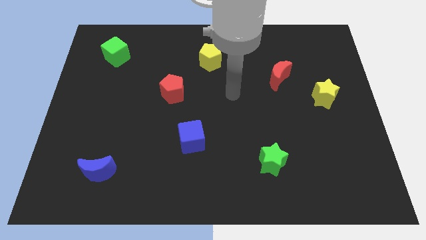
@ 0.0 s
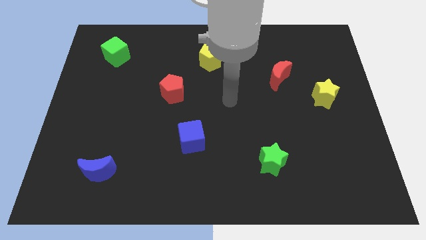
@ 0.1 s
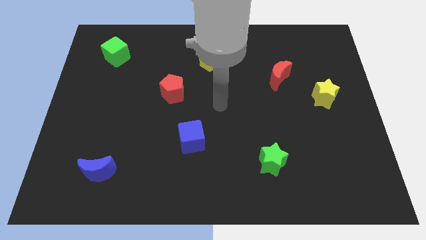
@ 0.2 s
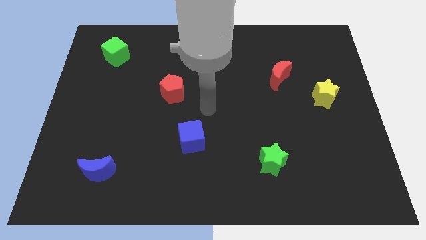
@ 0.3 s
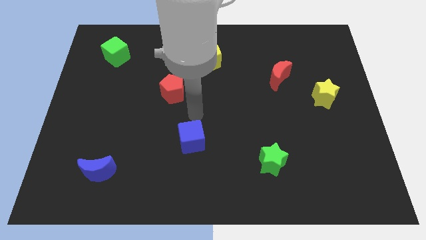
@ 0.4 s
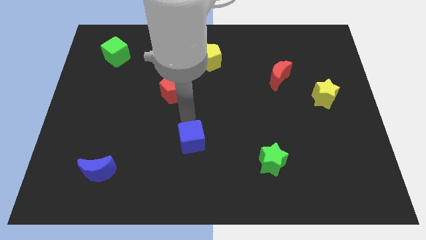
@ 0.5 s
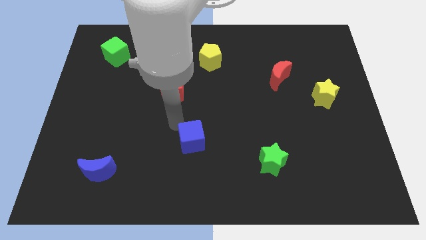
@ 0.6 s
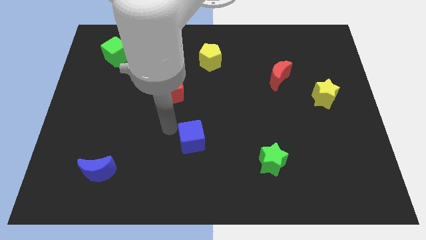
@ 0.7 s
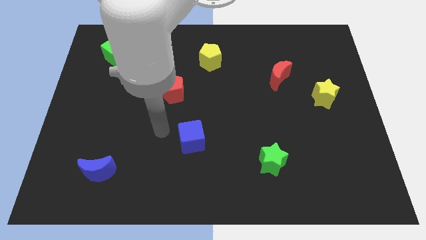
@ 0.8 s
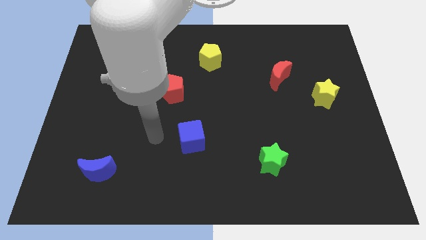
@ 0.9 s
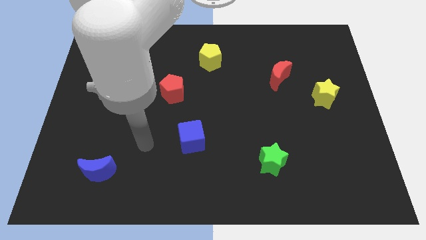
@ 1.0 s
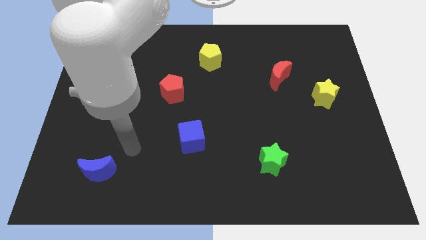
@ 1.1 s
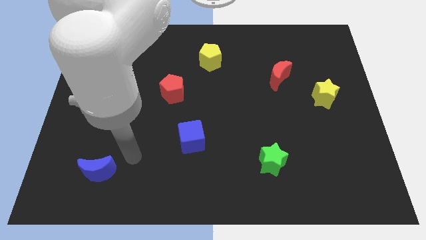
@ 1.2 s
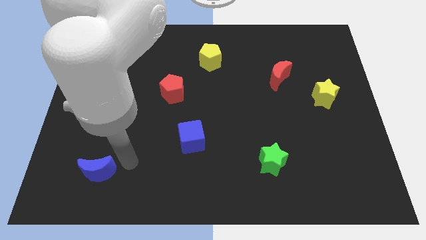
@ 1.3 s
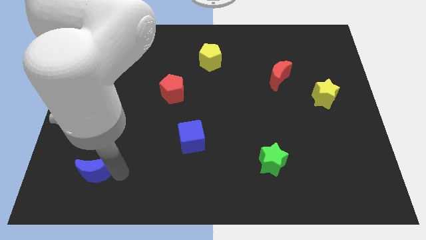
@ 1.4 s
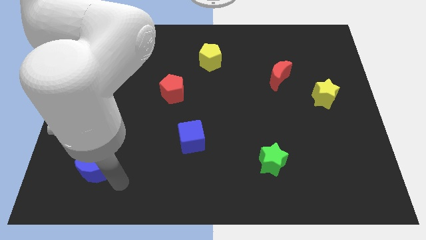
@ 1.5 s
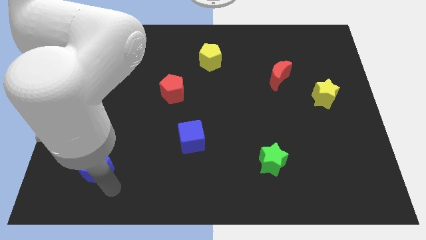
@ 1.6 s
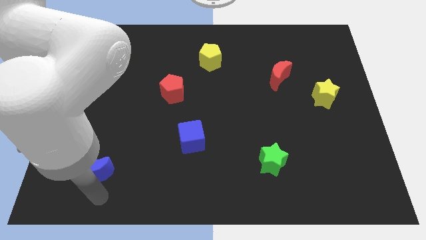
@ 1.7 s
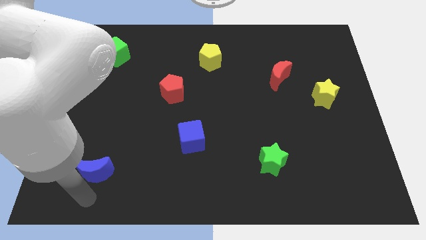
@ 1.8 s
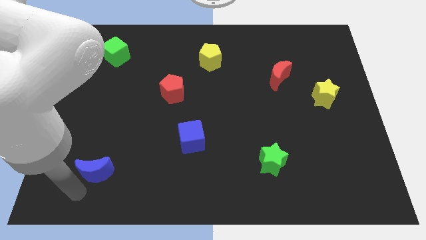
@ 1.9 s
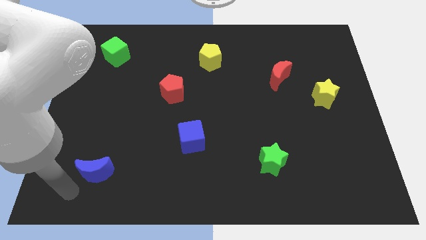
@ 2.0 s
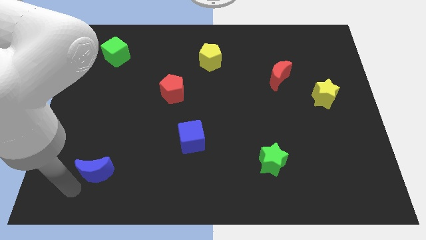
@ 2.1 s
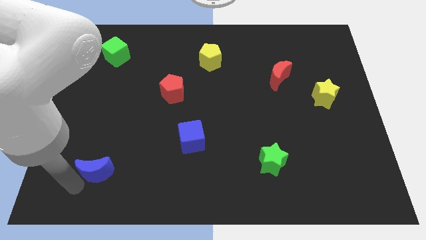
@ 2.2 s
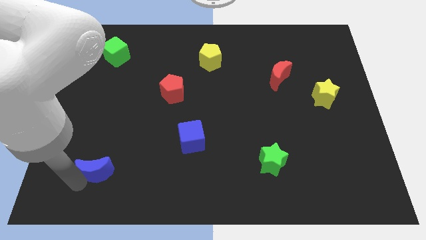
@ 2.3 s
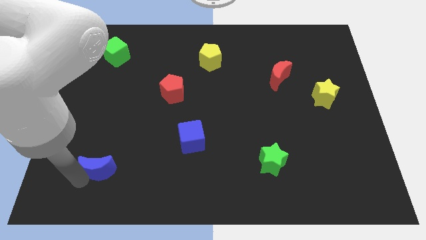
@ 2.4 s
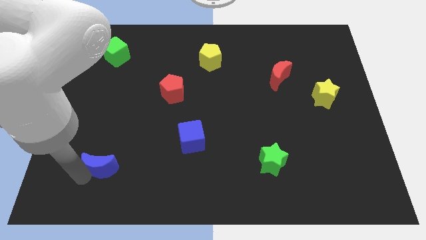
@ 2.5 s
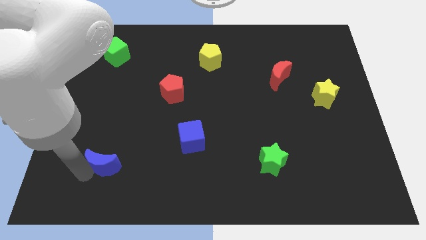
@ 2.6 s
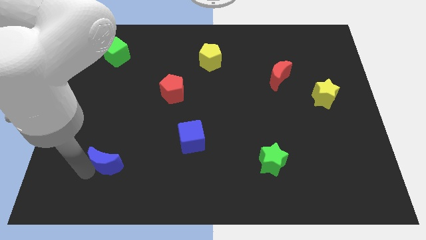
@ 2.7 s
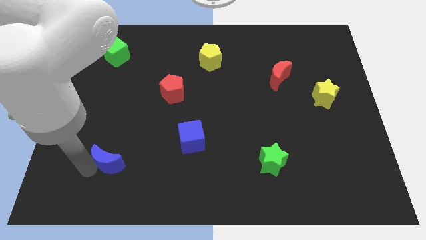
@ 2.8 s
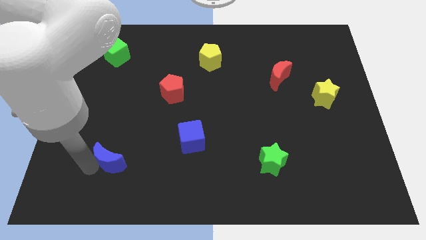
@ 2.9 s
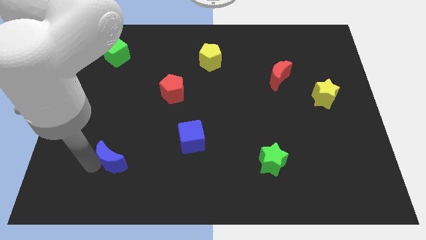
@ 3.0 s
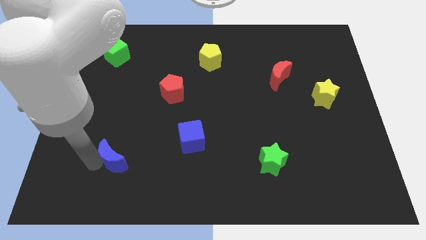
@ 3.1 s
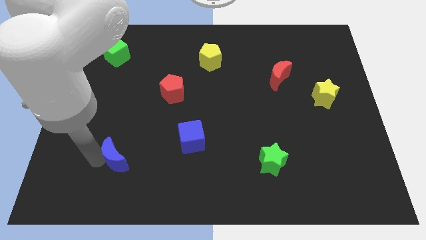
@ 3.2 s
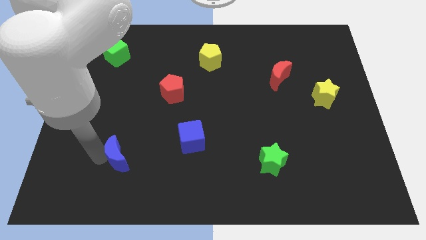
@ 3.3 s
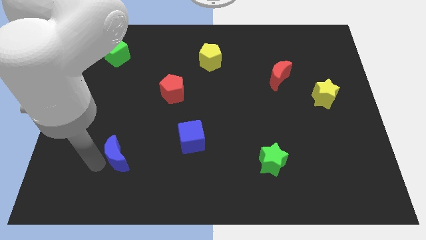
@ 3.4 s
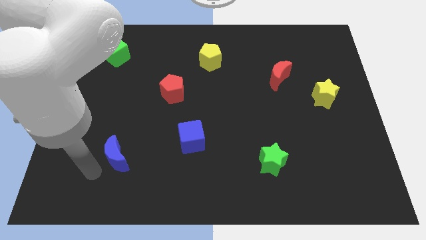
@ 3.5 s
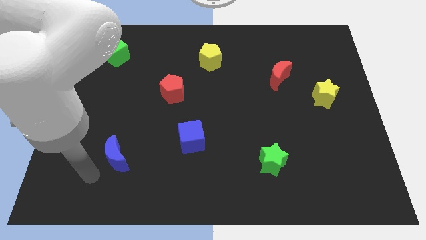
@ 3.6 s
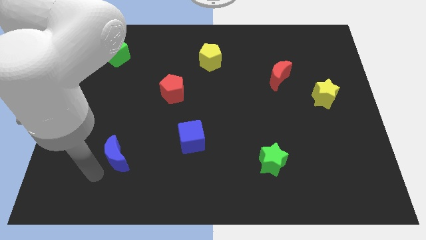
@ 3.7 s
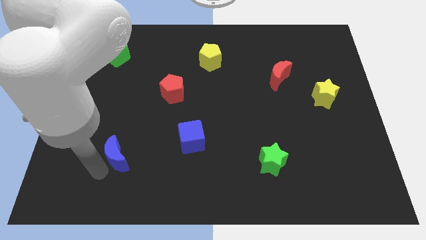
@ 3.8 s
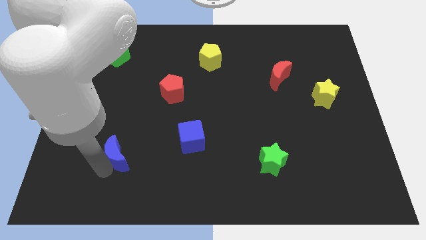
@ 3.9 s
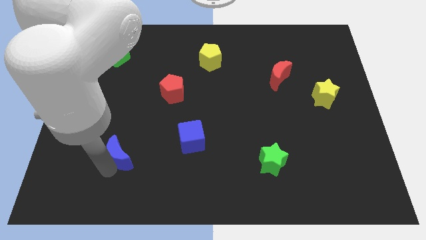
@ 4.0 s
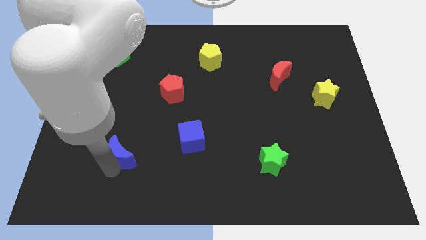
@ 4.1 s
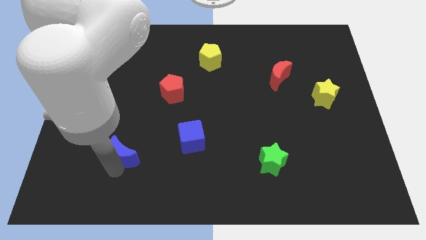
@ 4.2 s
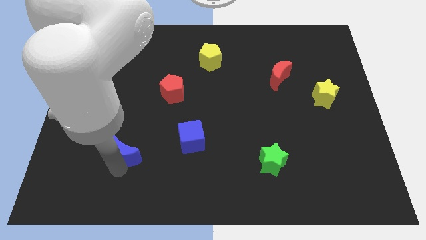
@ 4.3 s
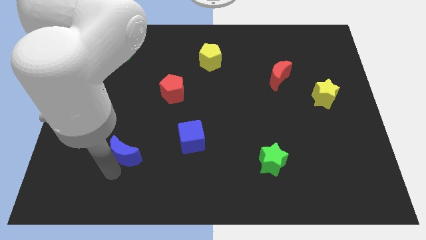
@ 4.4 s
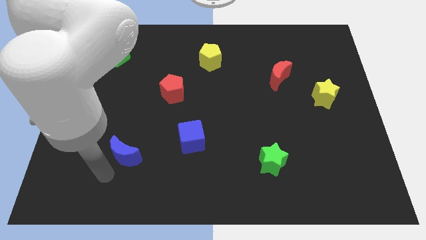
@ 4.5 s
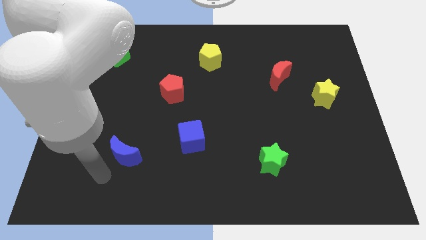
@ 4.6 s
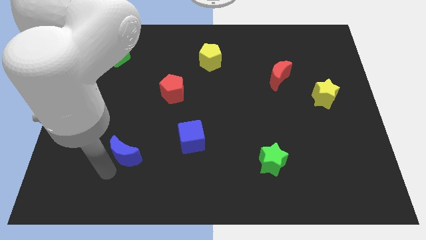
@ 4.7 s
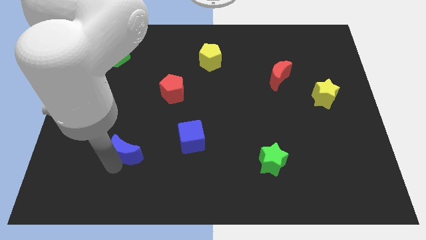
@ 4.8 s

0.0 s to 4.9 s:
push the blue moon a little upwards and then right

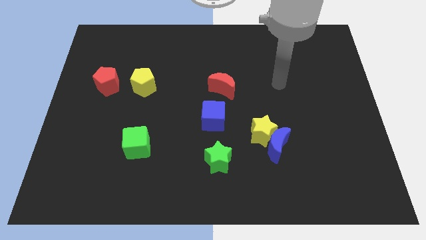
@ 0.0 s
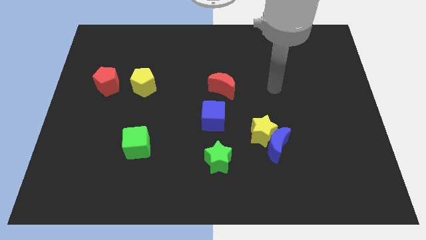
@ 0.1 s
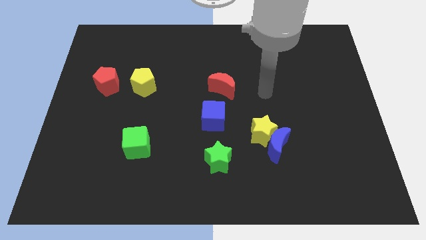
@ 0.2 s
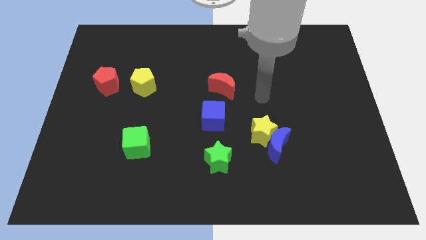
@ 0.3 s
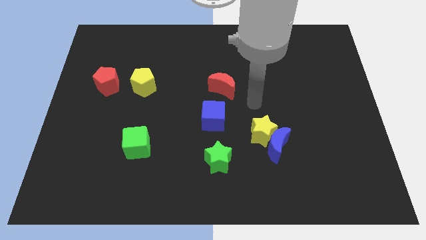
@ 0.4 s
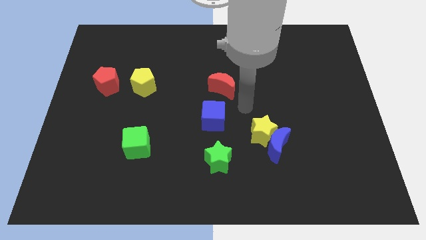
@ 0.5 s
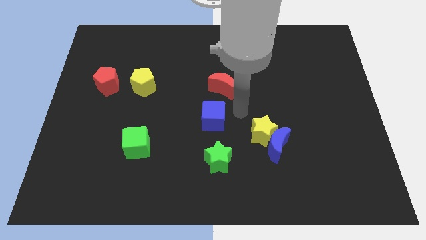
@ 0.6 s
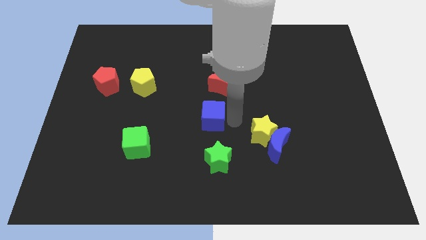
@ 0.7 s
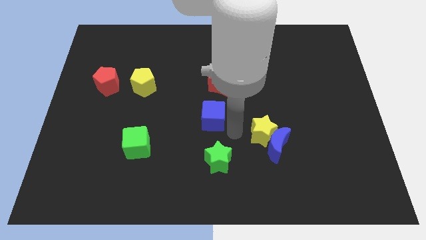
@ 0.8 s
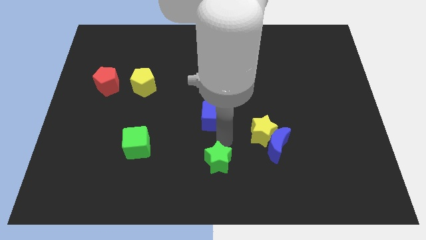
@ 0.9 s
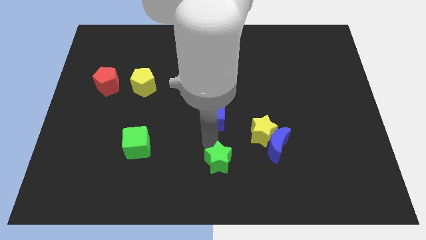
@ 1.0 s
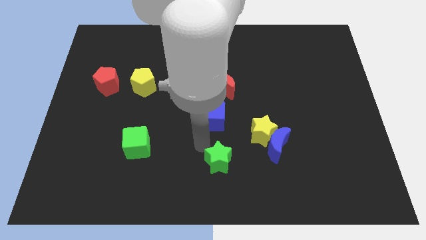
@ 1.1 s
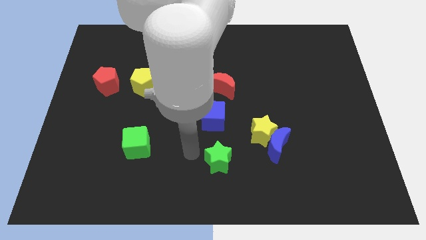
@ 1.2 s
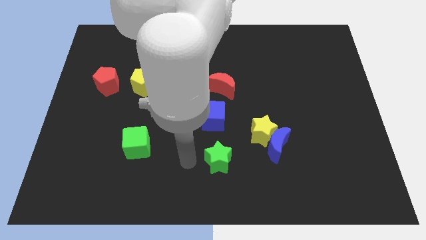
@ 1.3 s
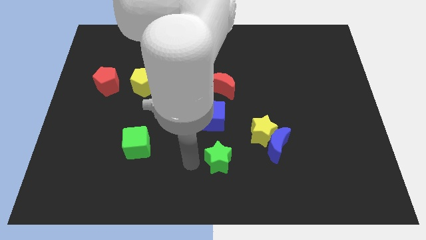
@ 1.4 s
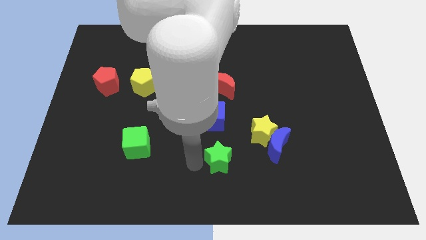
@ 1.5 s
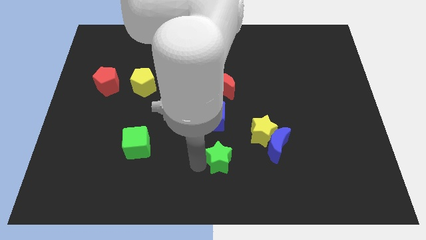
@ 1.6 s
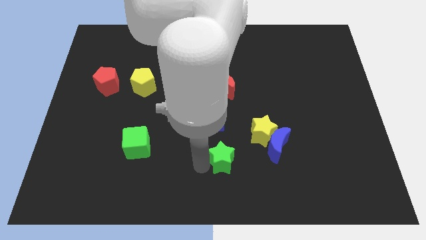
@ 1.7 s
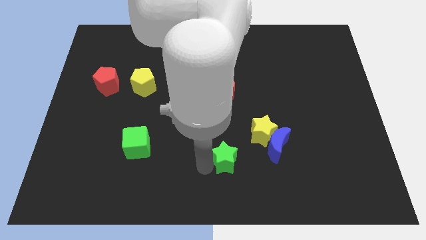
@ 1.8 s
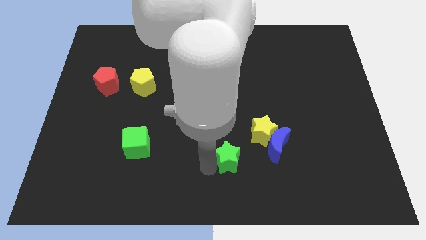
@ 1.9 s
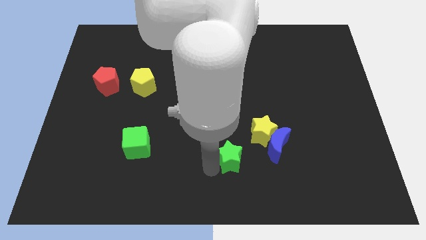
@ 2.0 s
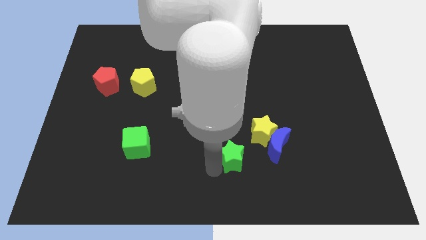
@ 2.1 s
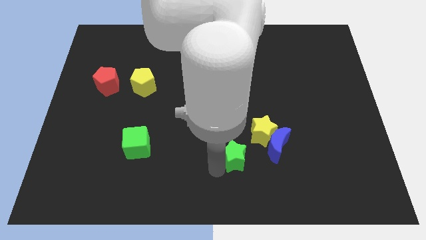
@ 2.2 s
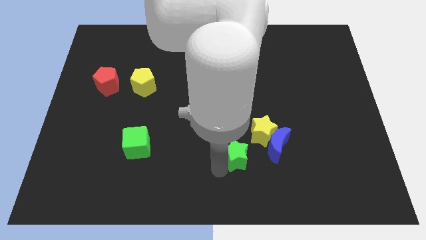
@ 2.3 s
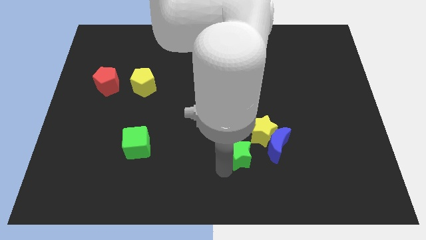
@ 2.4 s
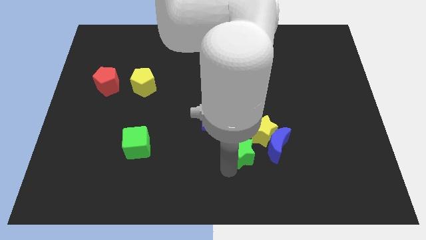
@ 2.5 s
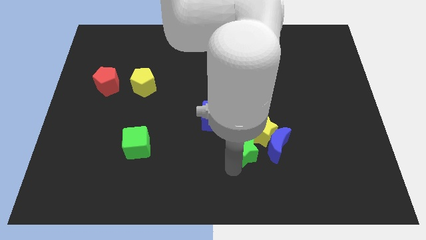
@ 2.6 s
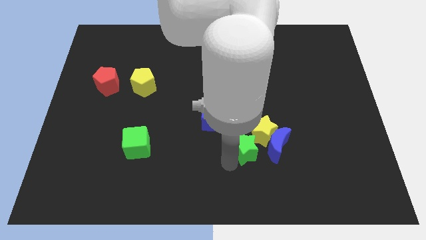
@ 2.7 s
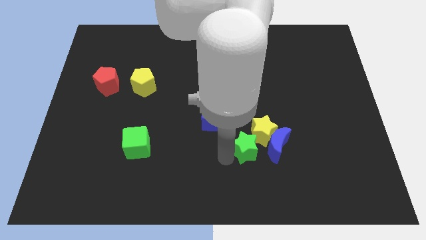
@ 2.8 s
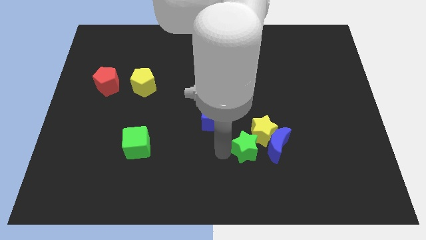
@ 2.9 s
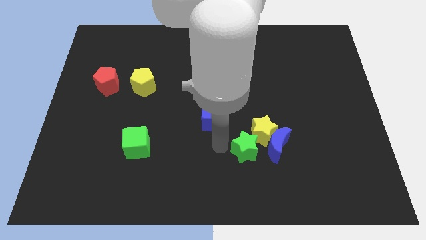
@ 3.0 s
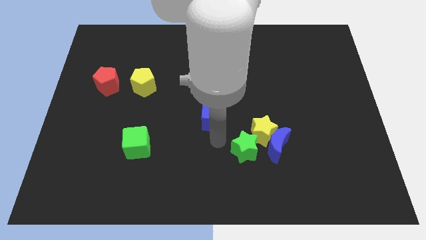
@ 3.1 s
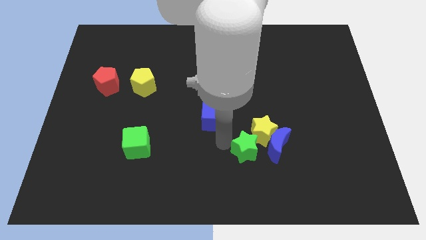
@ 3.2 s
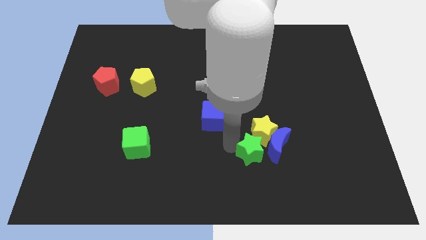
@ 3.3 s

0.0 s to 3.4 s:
slightly move the green star to the right
